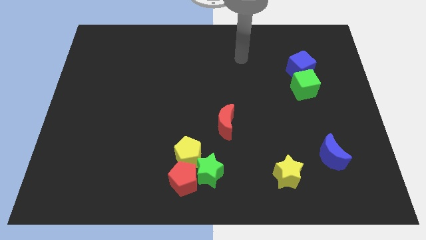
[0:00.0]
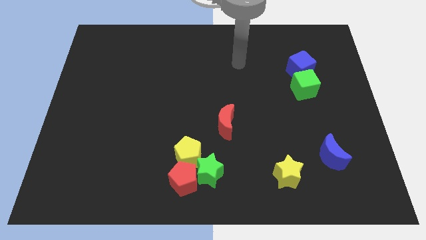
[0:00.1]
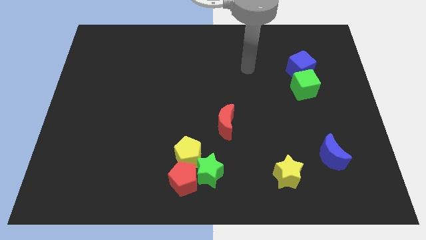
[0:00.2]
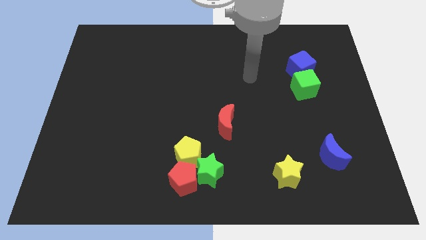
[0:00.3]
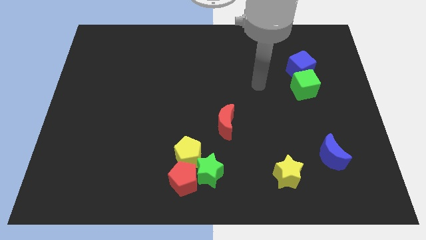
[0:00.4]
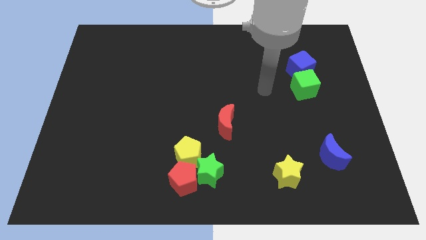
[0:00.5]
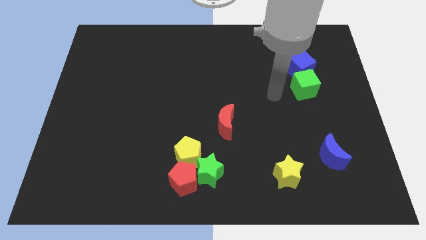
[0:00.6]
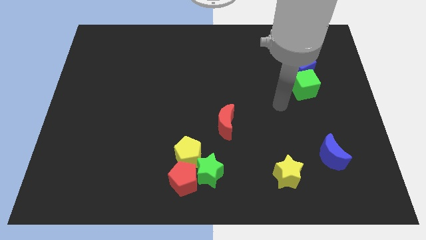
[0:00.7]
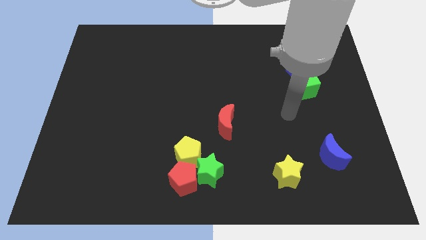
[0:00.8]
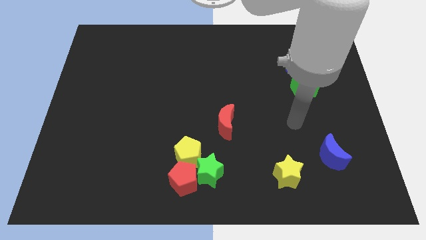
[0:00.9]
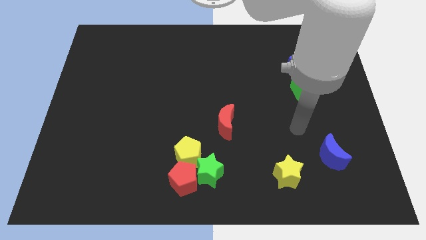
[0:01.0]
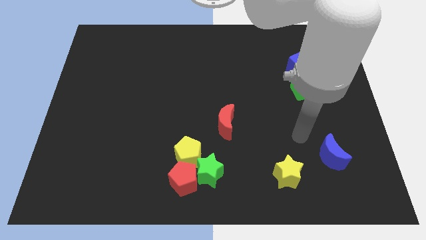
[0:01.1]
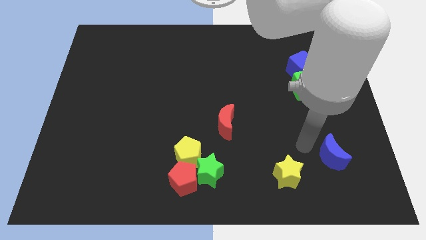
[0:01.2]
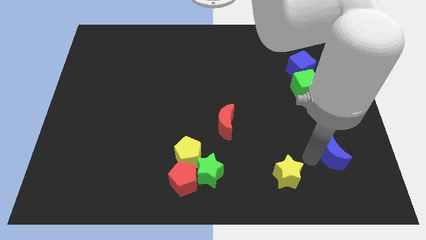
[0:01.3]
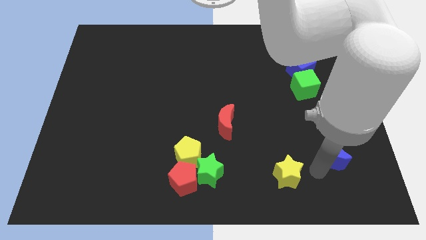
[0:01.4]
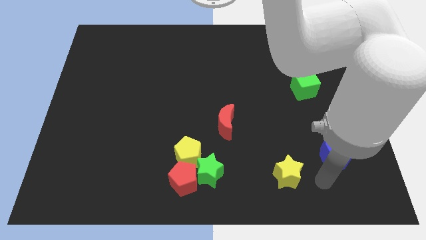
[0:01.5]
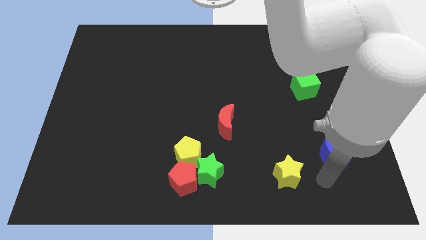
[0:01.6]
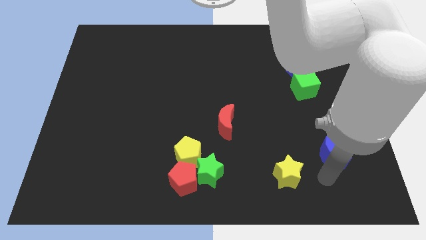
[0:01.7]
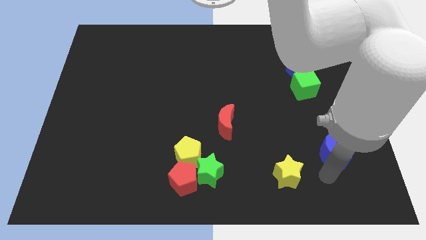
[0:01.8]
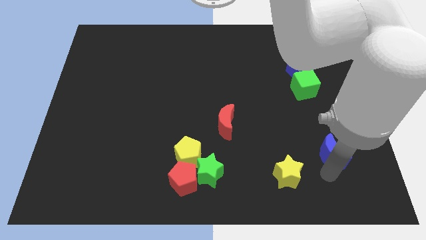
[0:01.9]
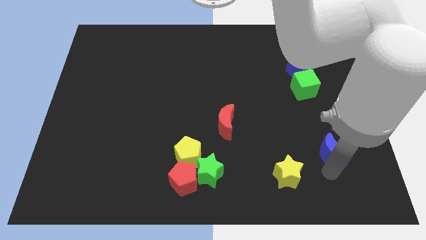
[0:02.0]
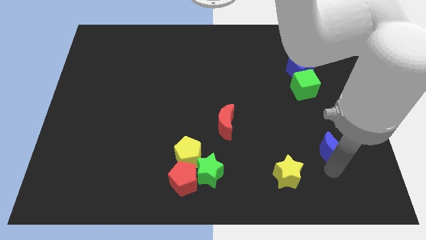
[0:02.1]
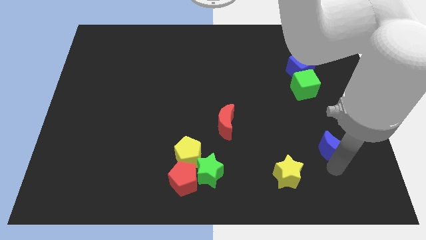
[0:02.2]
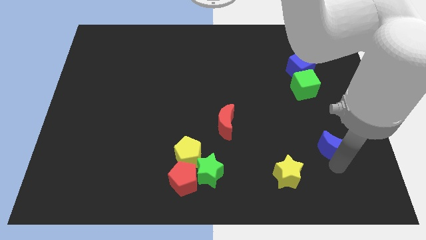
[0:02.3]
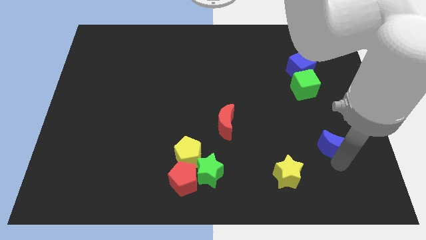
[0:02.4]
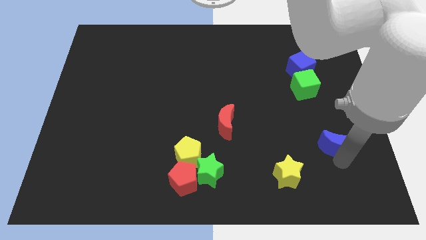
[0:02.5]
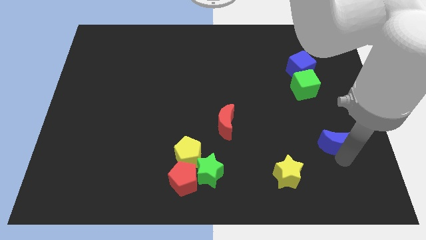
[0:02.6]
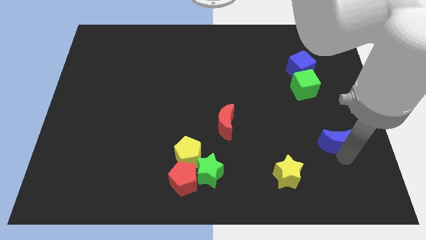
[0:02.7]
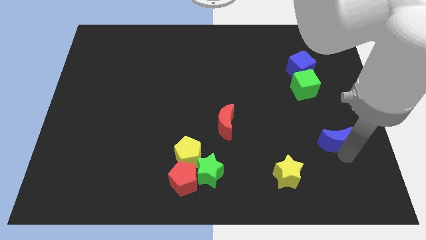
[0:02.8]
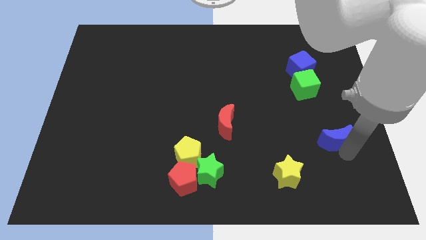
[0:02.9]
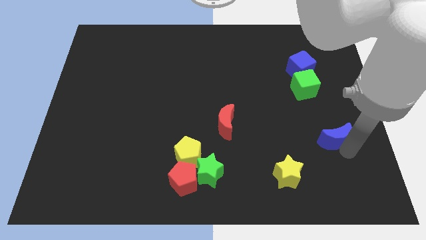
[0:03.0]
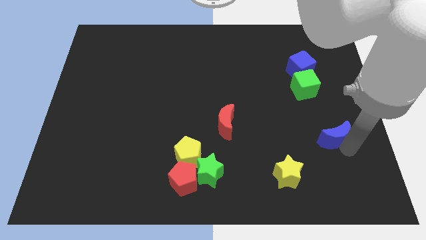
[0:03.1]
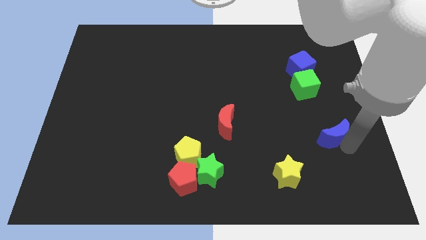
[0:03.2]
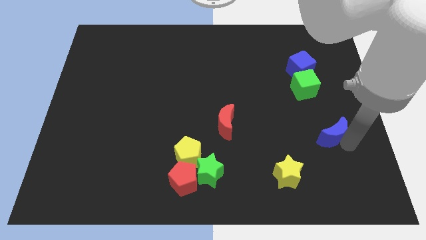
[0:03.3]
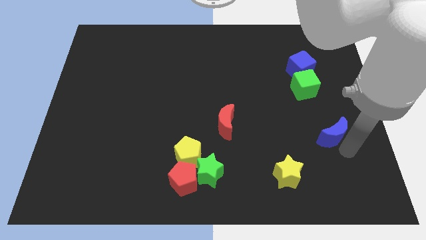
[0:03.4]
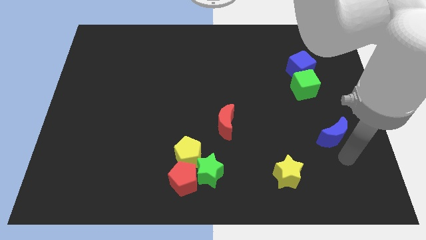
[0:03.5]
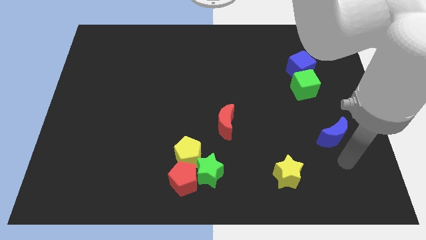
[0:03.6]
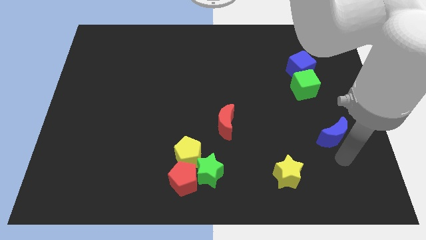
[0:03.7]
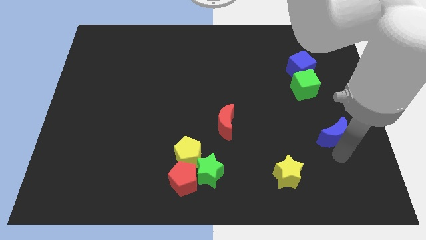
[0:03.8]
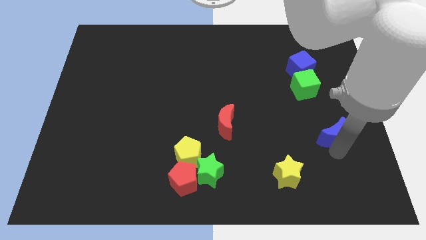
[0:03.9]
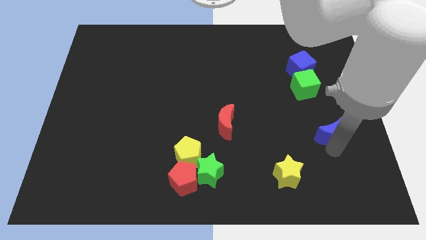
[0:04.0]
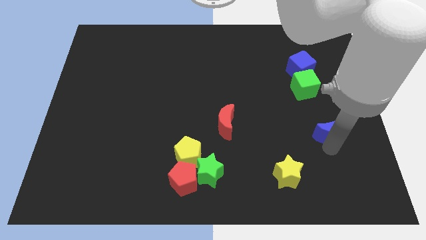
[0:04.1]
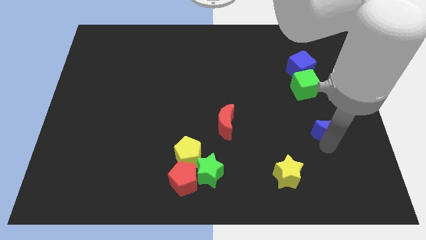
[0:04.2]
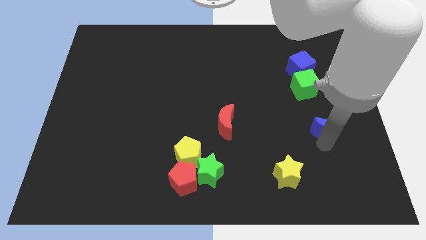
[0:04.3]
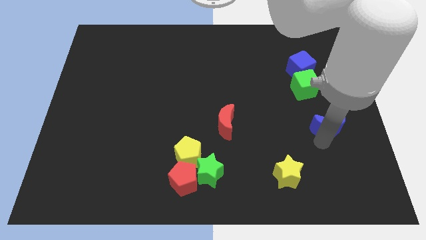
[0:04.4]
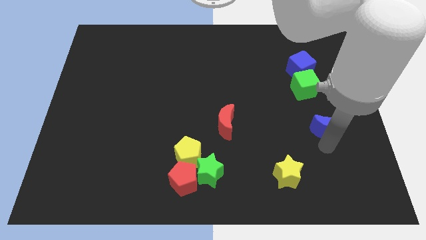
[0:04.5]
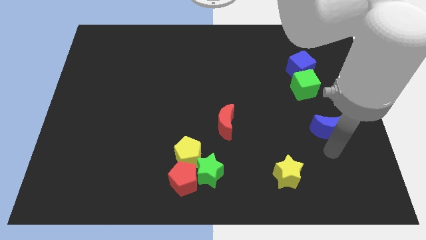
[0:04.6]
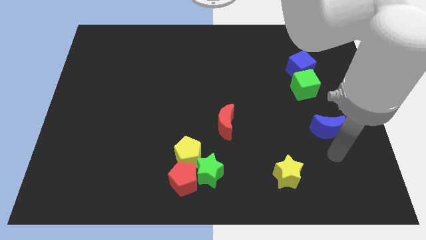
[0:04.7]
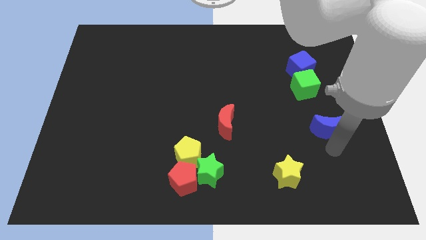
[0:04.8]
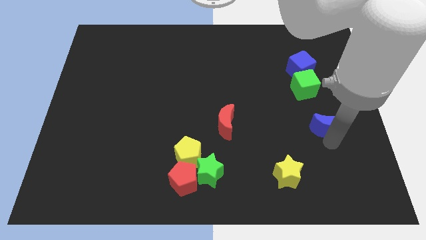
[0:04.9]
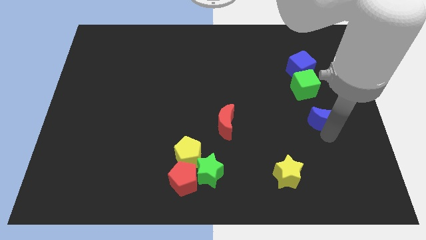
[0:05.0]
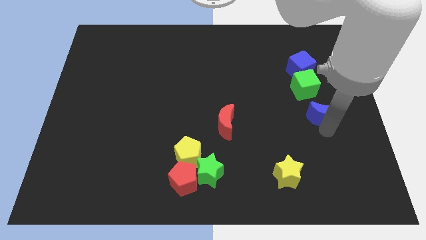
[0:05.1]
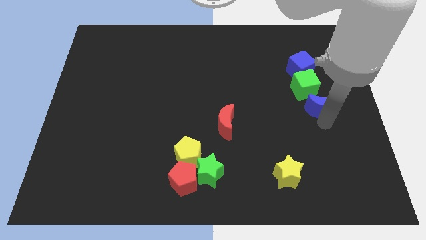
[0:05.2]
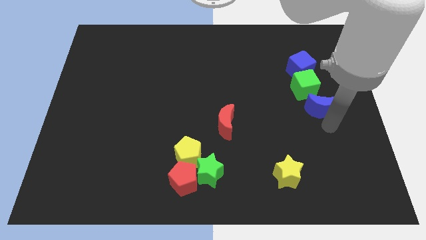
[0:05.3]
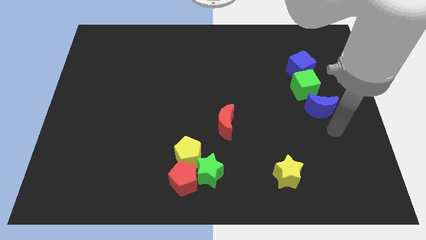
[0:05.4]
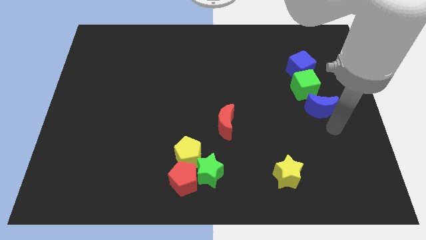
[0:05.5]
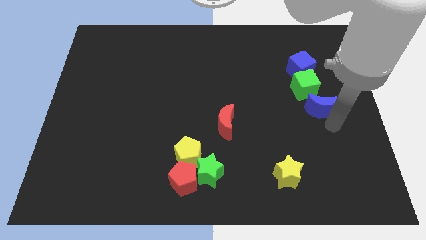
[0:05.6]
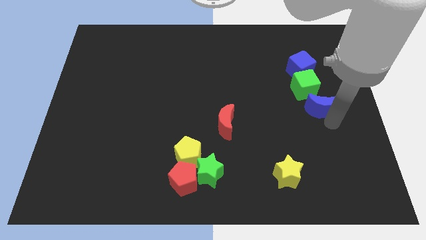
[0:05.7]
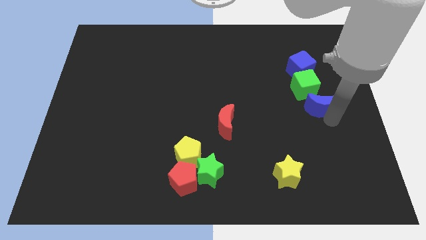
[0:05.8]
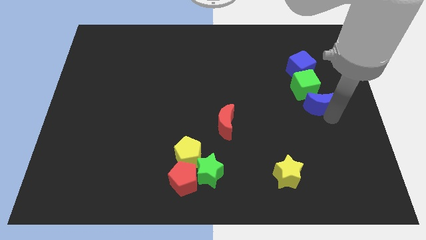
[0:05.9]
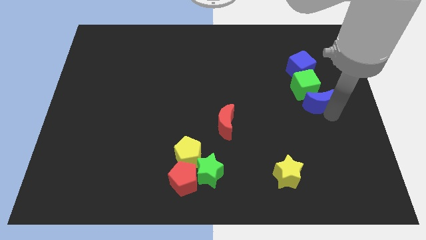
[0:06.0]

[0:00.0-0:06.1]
move the blue moon close to the green cube

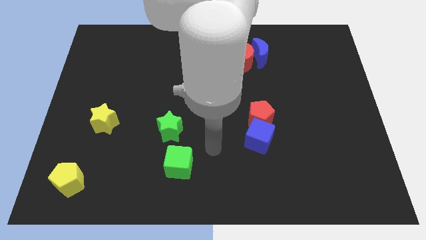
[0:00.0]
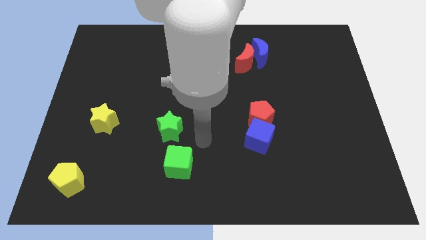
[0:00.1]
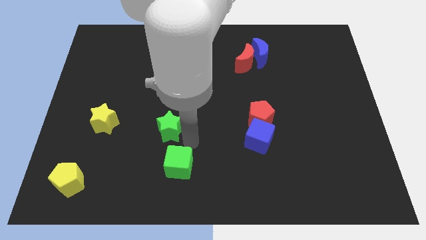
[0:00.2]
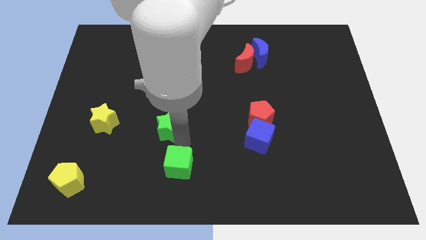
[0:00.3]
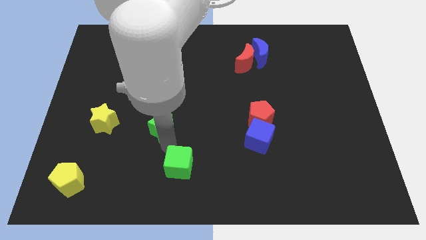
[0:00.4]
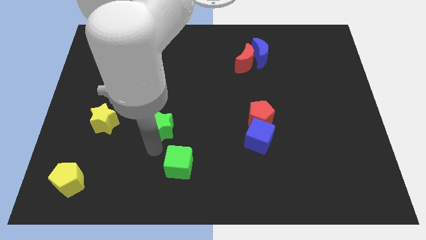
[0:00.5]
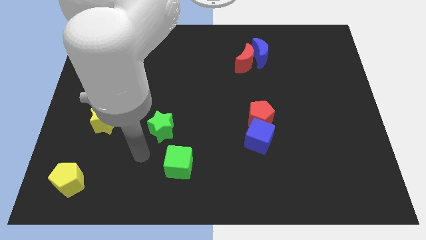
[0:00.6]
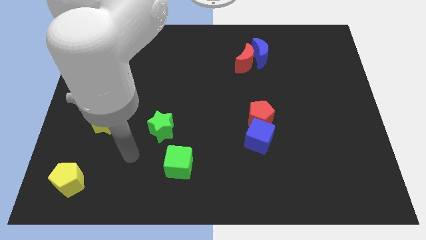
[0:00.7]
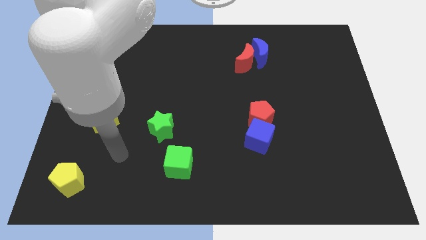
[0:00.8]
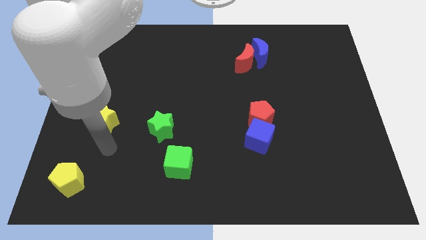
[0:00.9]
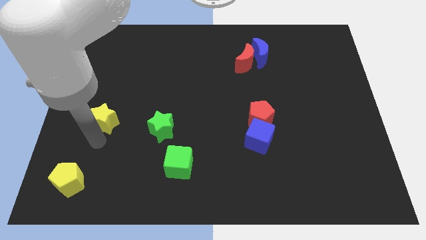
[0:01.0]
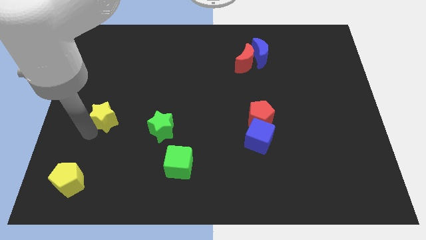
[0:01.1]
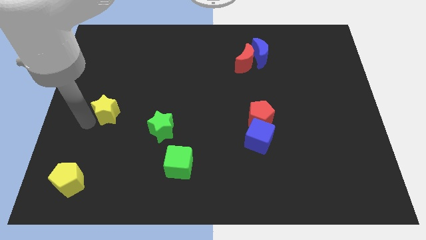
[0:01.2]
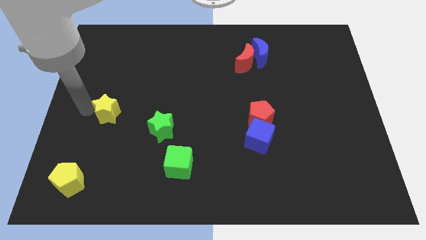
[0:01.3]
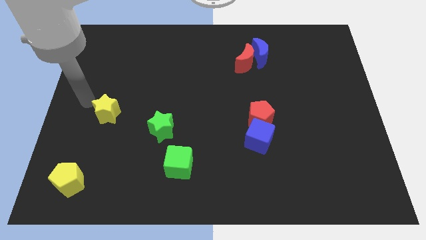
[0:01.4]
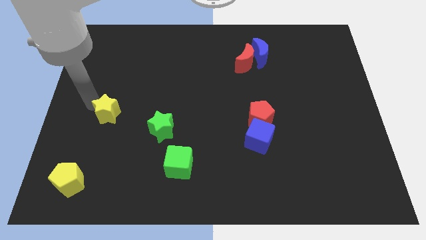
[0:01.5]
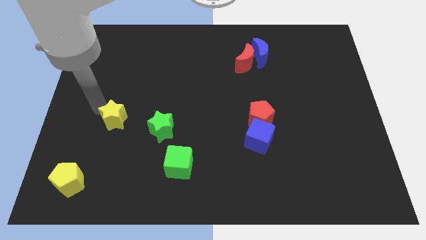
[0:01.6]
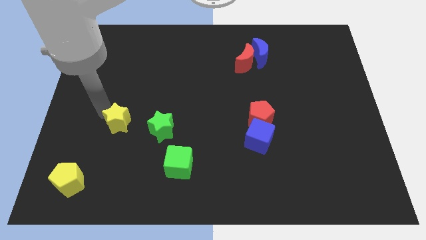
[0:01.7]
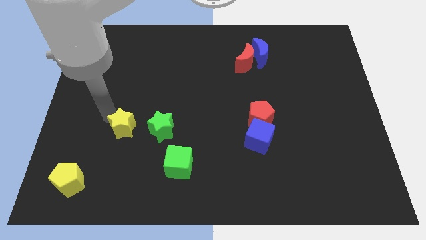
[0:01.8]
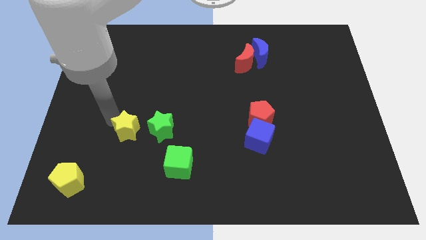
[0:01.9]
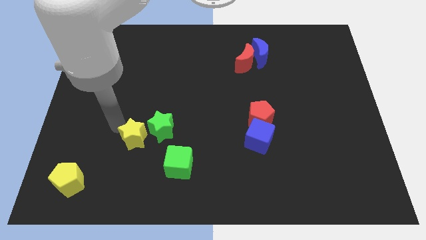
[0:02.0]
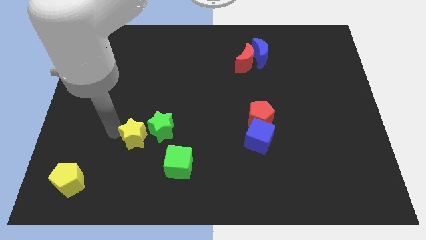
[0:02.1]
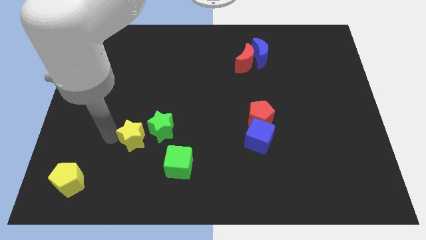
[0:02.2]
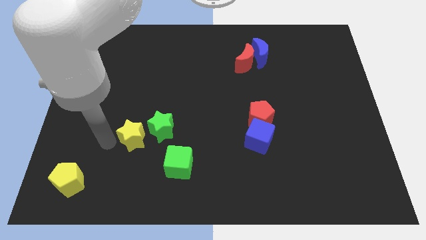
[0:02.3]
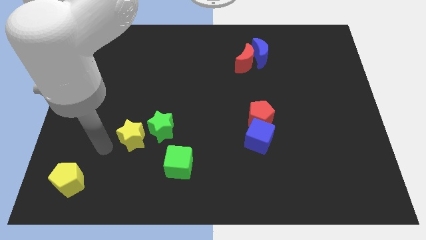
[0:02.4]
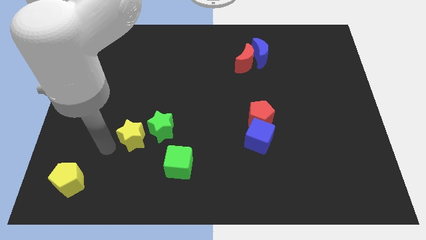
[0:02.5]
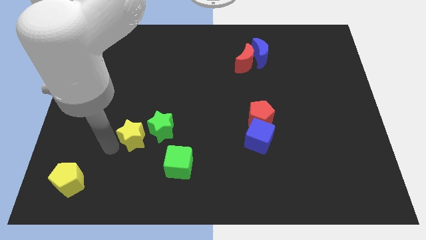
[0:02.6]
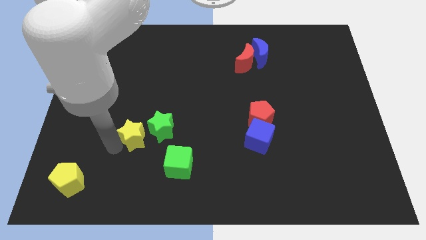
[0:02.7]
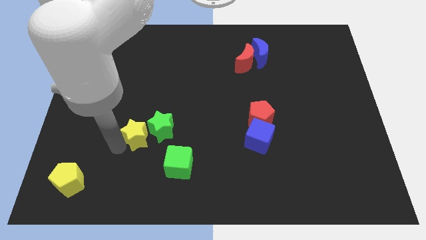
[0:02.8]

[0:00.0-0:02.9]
move the yellow star next to the green star
